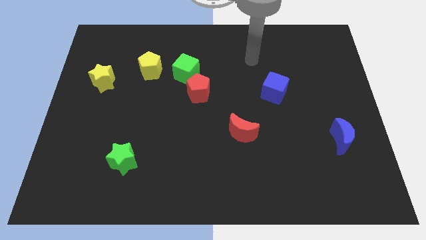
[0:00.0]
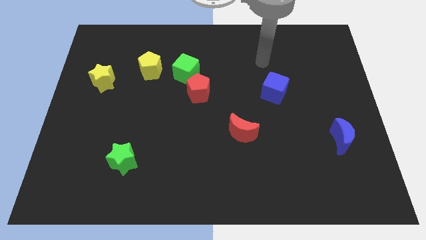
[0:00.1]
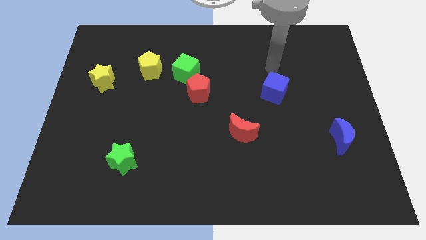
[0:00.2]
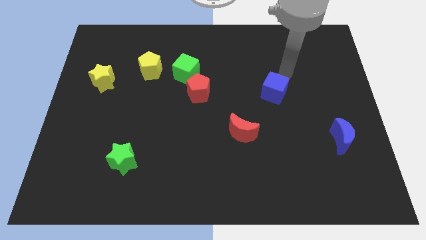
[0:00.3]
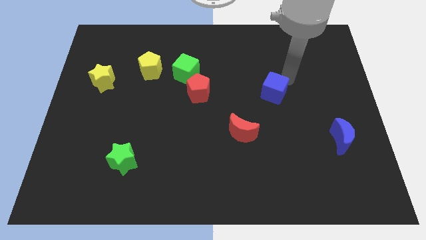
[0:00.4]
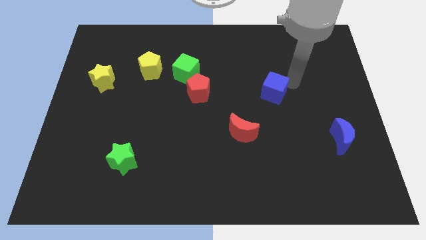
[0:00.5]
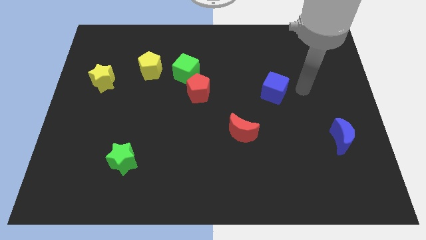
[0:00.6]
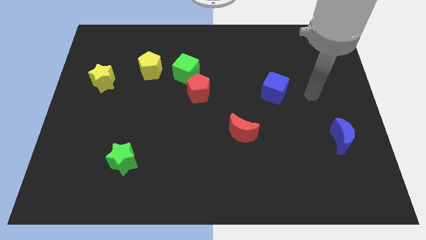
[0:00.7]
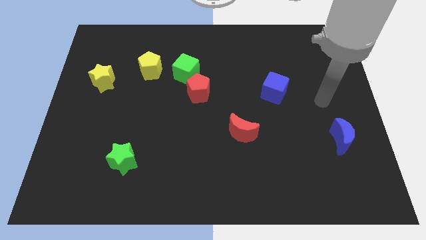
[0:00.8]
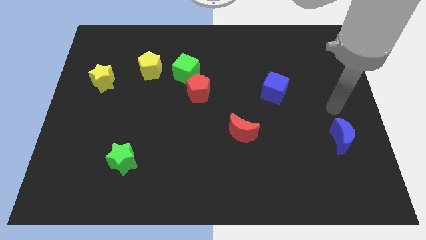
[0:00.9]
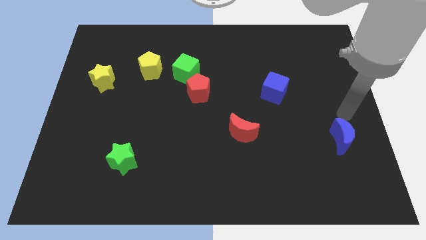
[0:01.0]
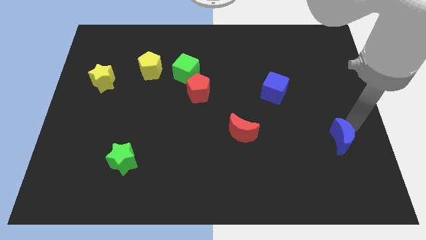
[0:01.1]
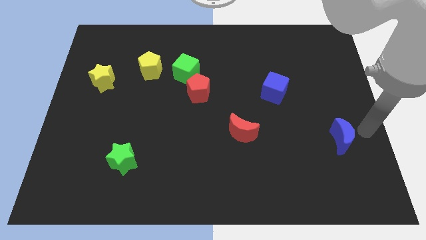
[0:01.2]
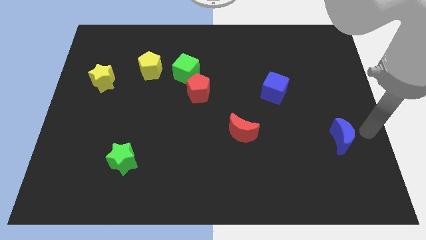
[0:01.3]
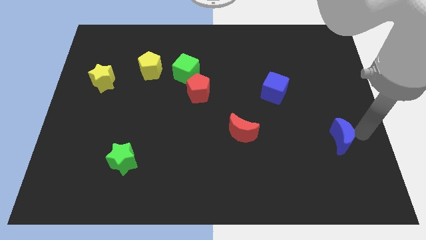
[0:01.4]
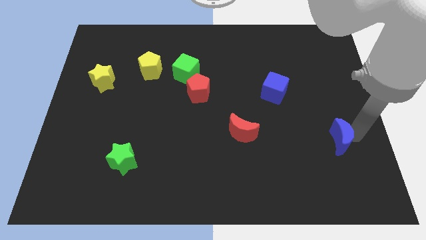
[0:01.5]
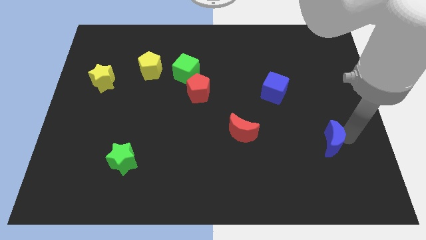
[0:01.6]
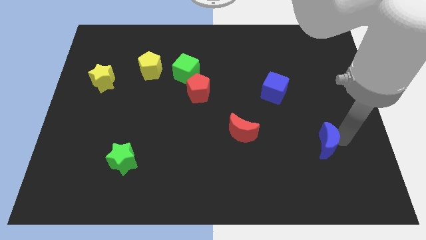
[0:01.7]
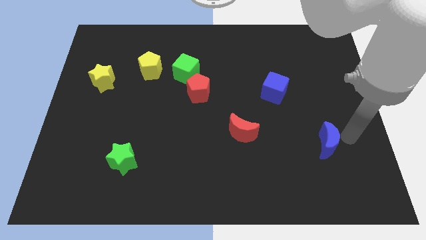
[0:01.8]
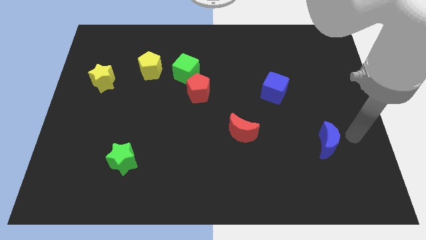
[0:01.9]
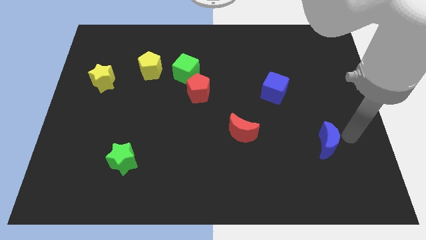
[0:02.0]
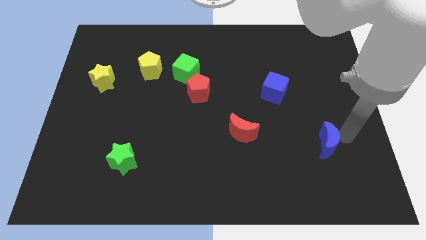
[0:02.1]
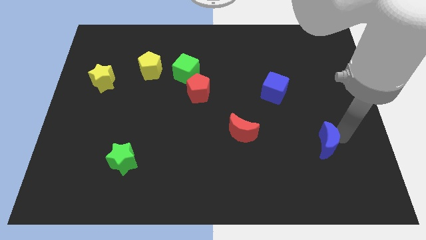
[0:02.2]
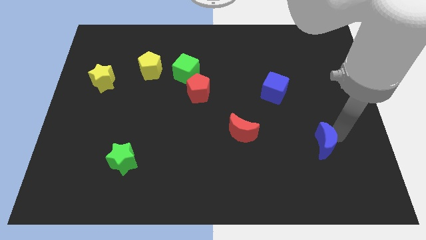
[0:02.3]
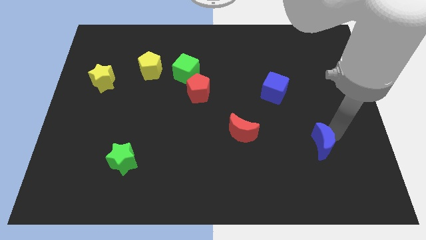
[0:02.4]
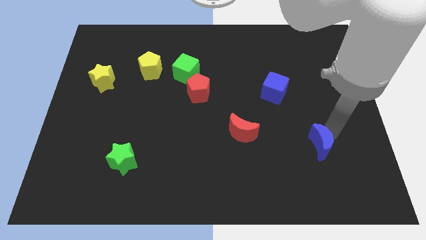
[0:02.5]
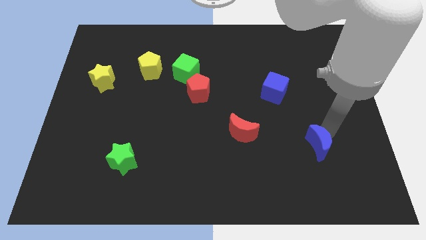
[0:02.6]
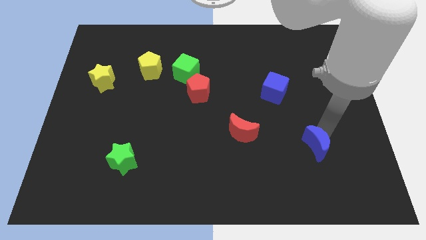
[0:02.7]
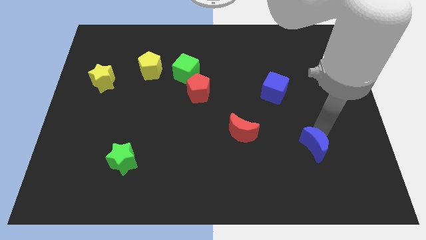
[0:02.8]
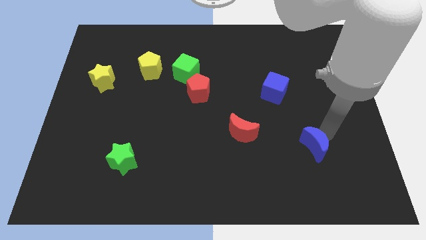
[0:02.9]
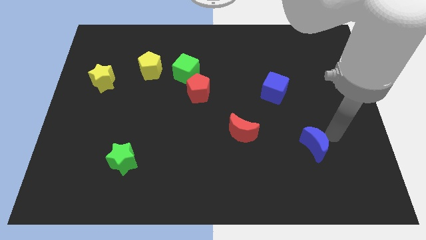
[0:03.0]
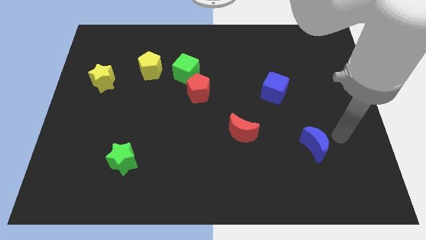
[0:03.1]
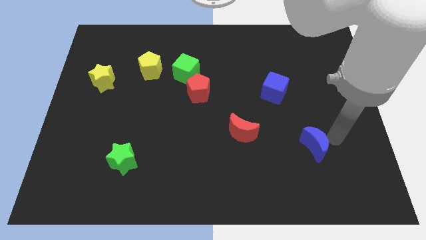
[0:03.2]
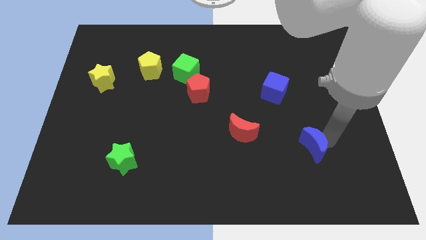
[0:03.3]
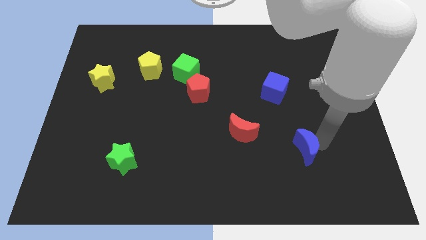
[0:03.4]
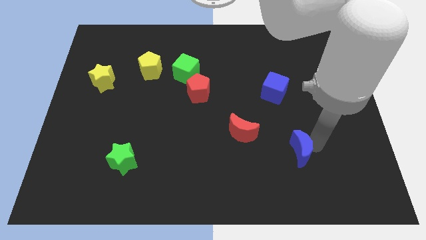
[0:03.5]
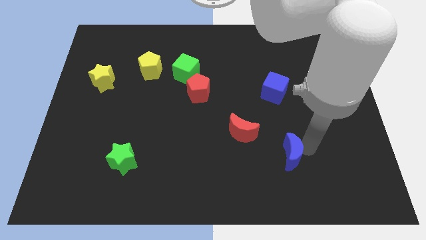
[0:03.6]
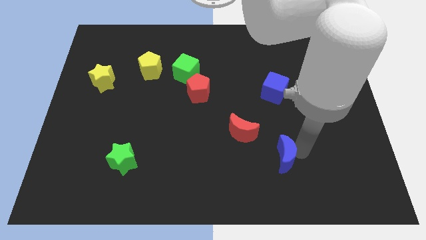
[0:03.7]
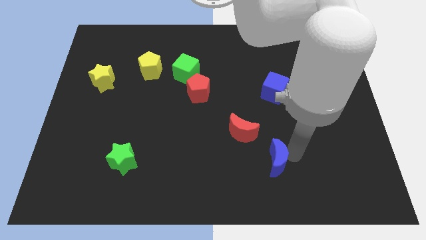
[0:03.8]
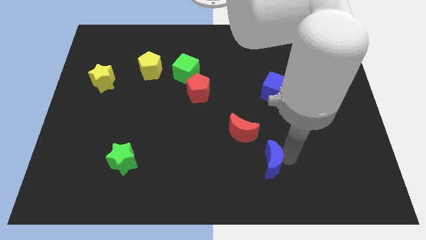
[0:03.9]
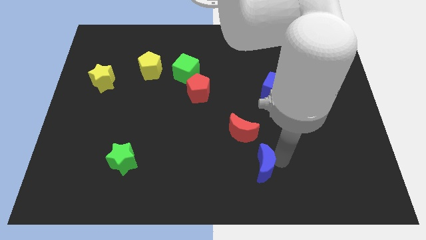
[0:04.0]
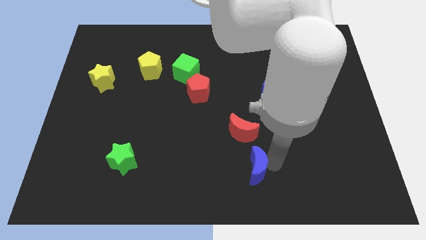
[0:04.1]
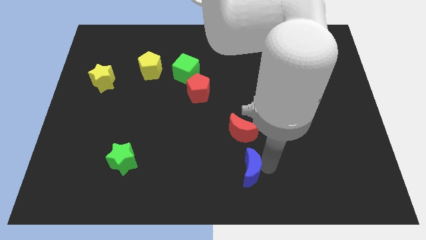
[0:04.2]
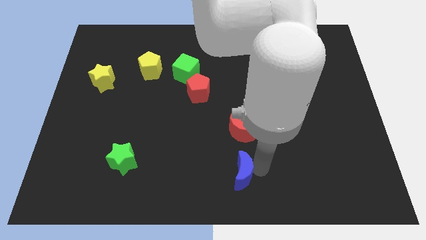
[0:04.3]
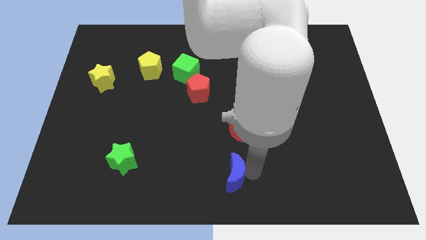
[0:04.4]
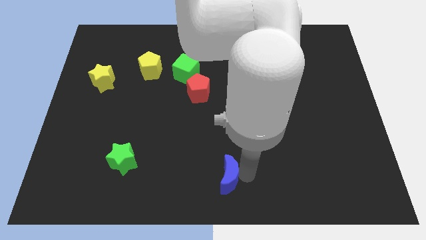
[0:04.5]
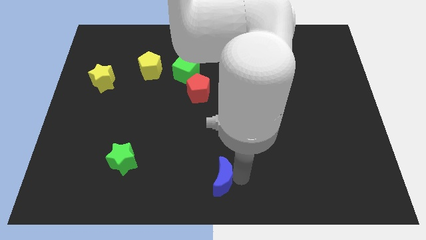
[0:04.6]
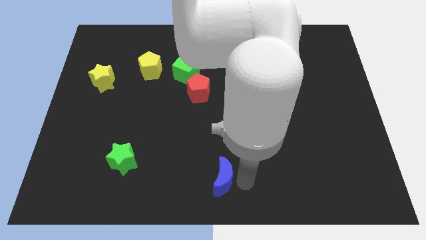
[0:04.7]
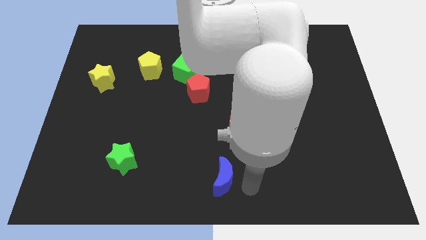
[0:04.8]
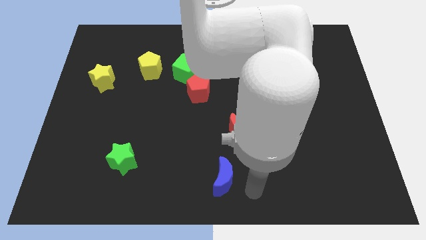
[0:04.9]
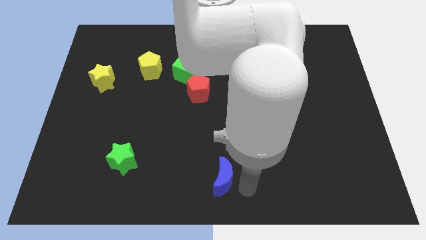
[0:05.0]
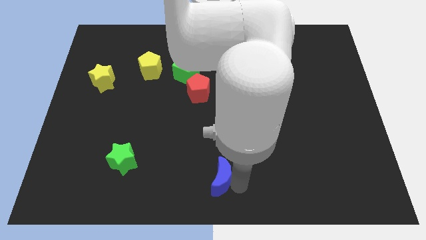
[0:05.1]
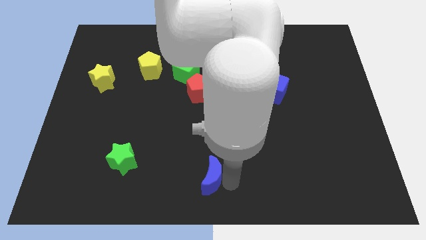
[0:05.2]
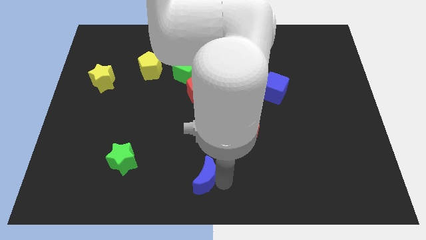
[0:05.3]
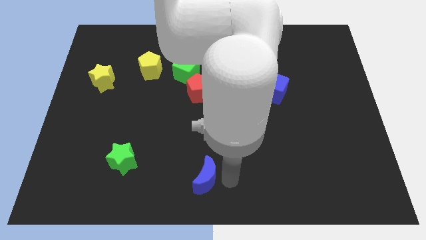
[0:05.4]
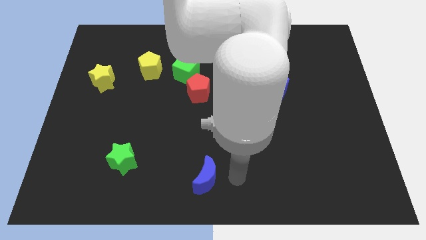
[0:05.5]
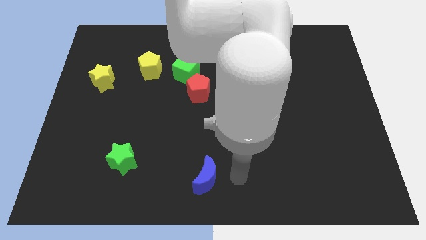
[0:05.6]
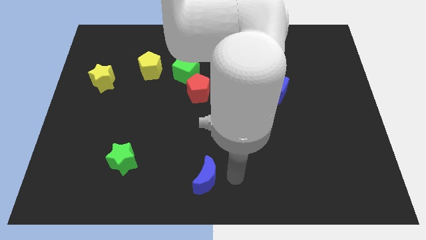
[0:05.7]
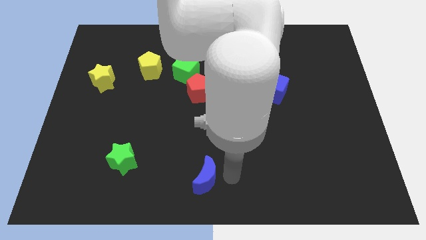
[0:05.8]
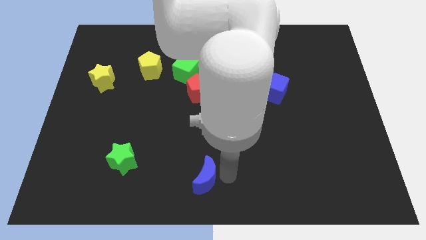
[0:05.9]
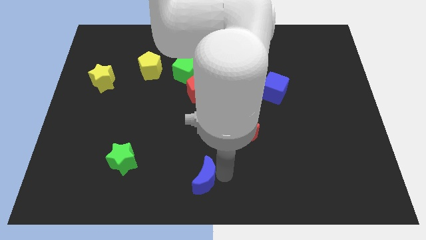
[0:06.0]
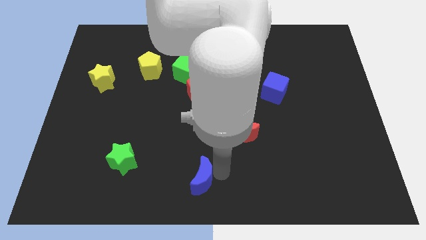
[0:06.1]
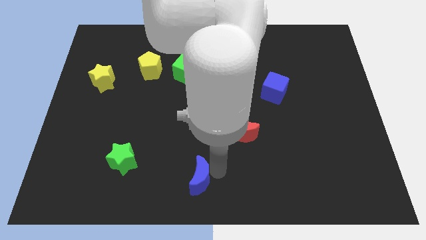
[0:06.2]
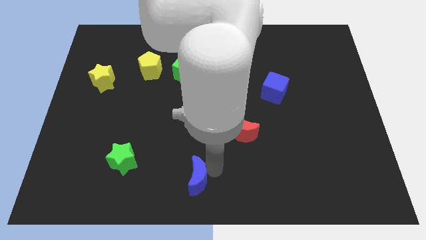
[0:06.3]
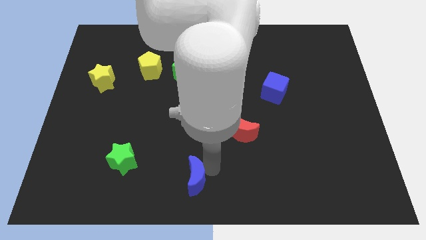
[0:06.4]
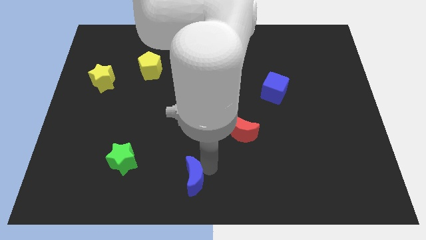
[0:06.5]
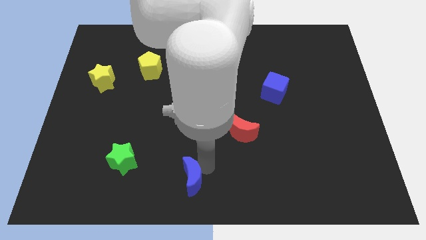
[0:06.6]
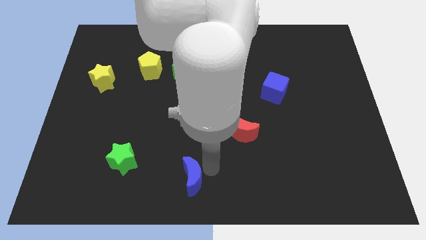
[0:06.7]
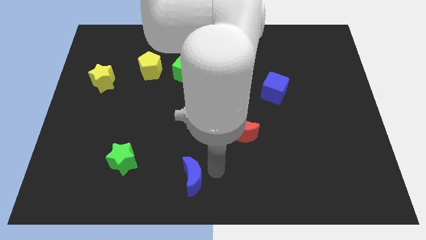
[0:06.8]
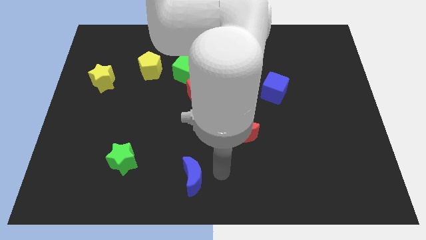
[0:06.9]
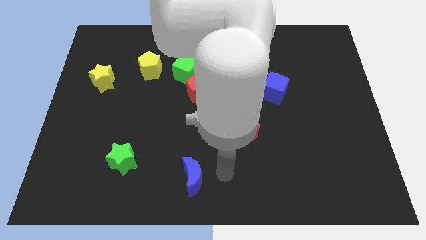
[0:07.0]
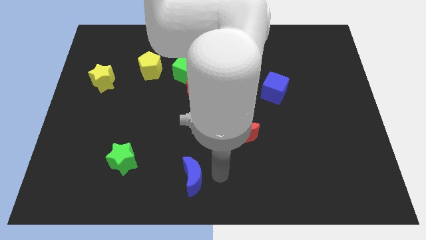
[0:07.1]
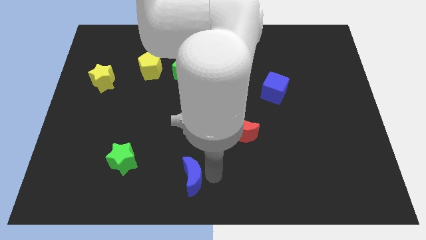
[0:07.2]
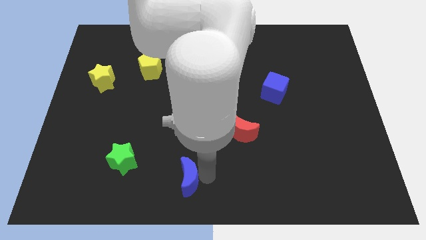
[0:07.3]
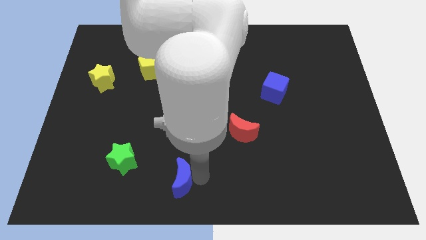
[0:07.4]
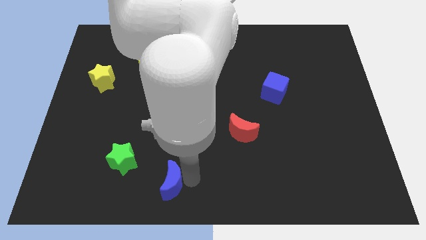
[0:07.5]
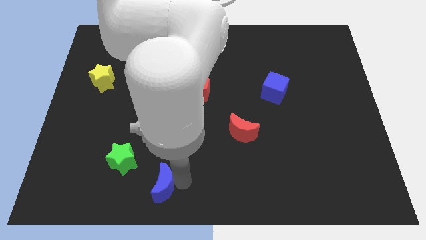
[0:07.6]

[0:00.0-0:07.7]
push the blue moon to the bottom right of the green star

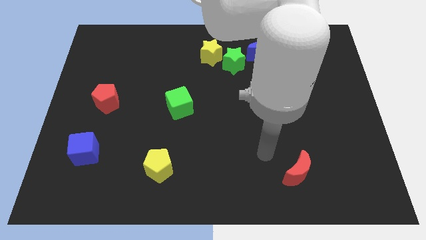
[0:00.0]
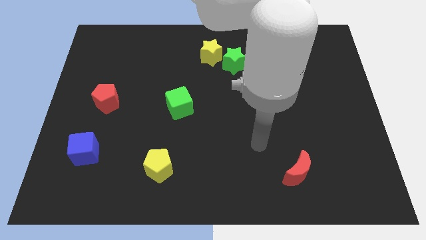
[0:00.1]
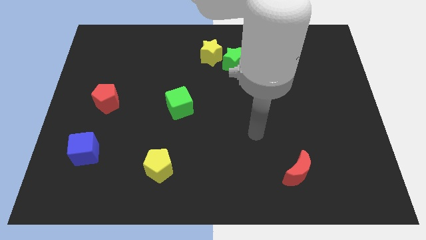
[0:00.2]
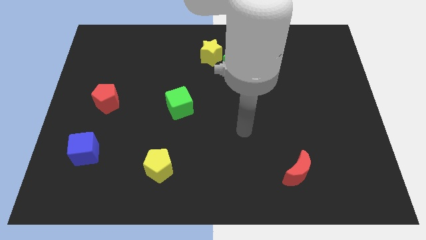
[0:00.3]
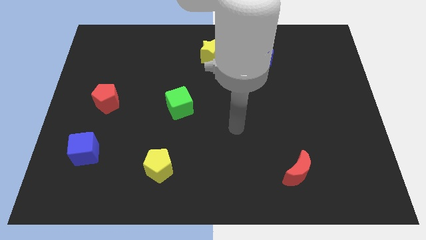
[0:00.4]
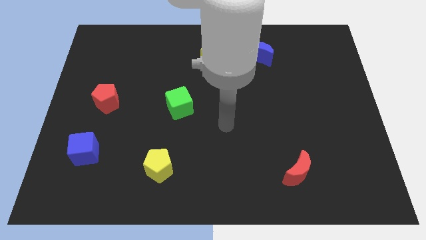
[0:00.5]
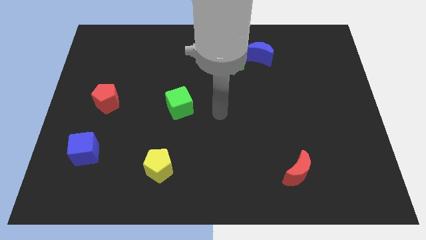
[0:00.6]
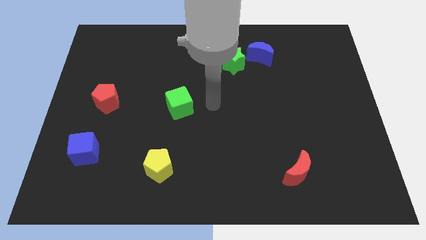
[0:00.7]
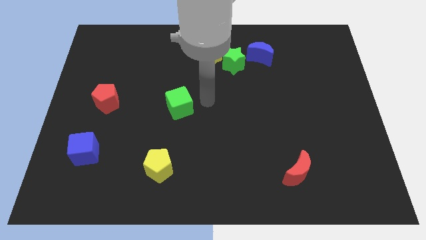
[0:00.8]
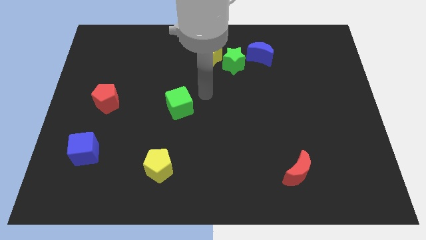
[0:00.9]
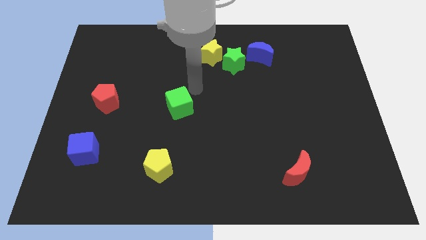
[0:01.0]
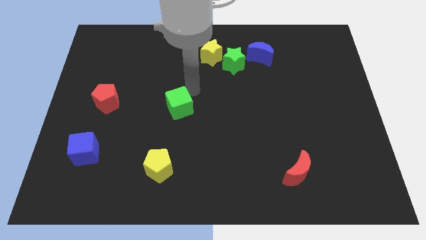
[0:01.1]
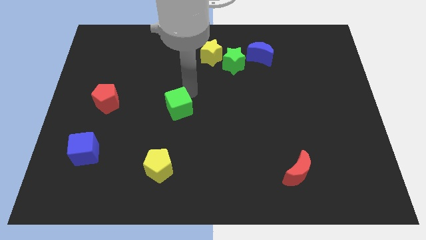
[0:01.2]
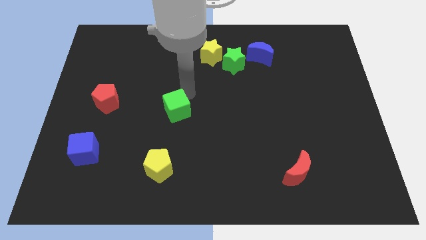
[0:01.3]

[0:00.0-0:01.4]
push the green cube to the top of the yellow pentagon
